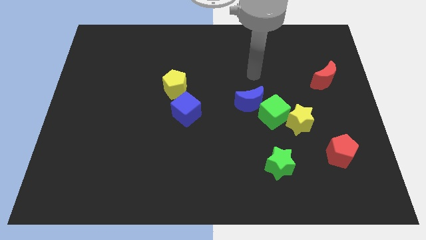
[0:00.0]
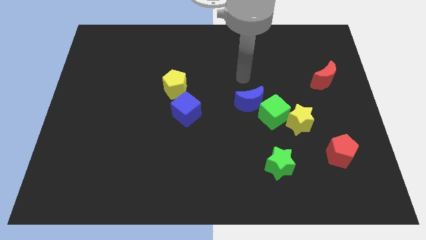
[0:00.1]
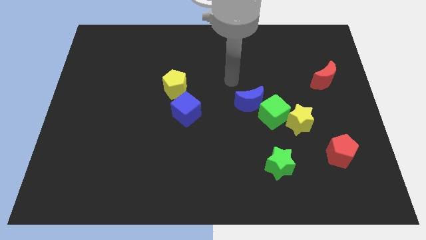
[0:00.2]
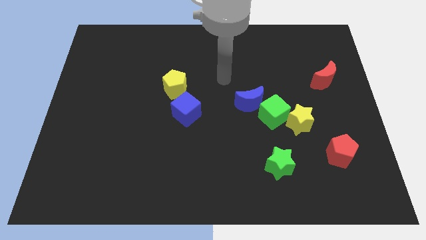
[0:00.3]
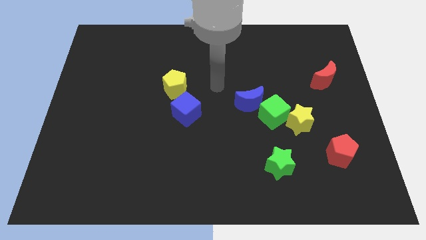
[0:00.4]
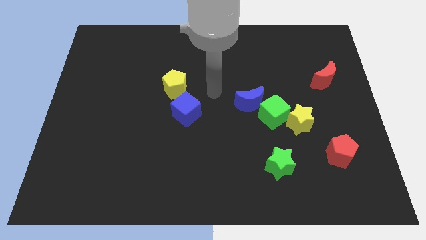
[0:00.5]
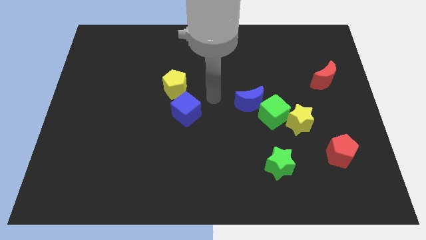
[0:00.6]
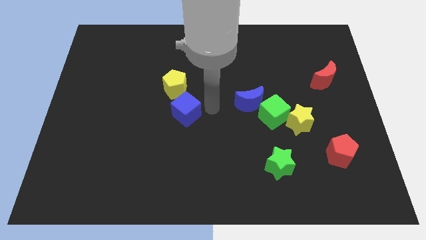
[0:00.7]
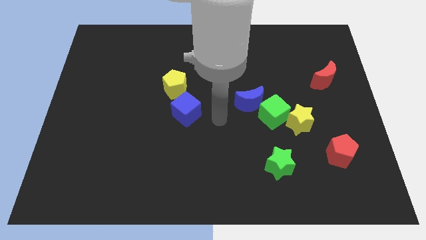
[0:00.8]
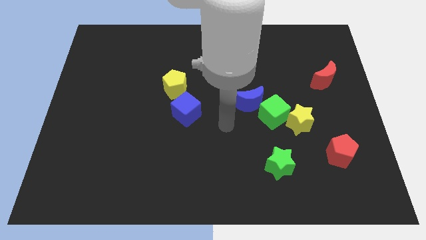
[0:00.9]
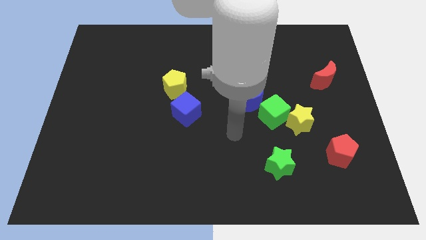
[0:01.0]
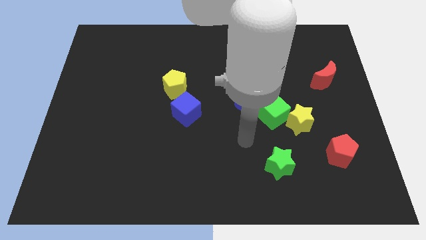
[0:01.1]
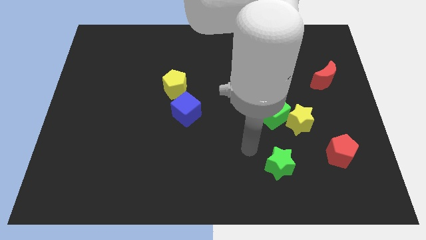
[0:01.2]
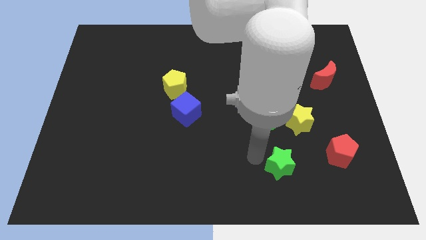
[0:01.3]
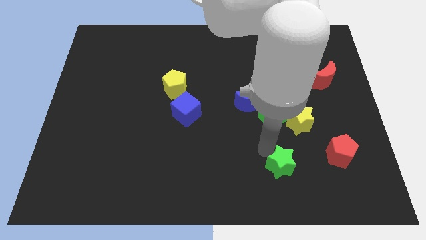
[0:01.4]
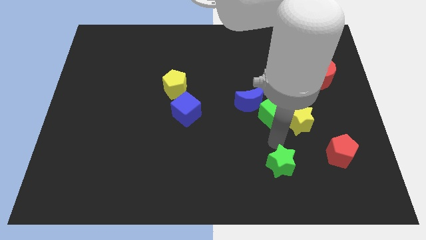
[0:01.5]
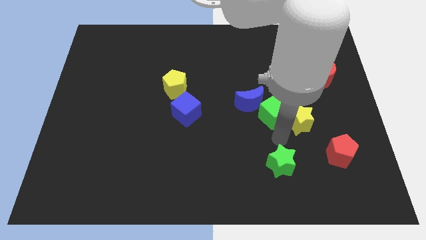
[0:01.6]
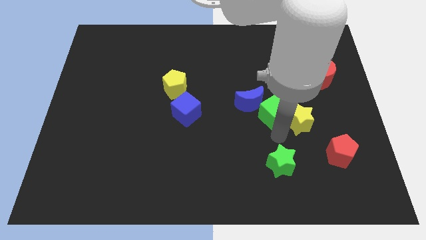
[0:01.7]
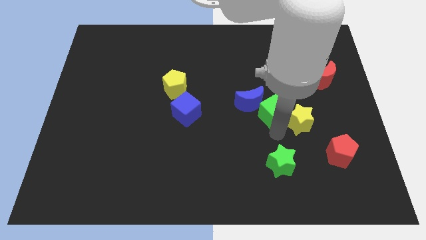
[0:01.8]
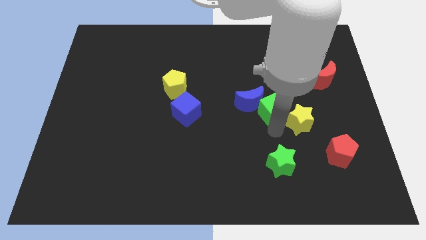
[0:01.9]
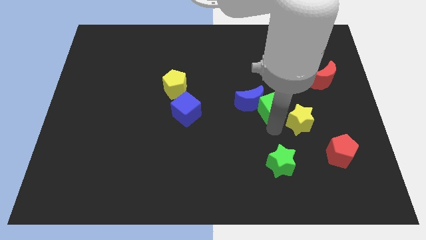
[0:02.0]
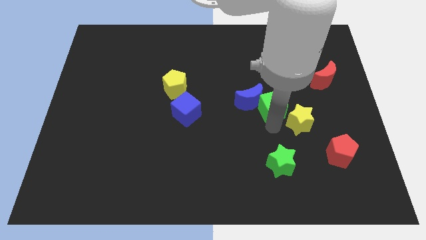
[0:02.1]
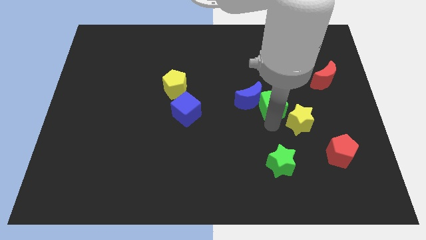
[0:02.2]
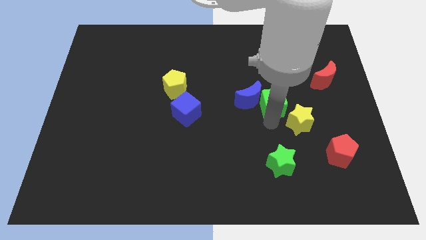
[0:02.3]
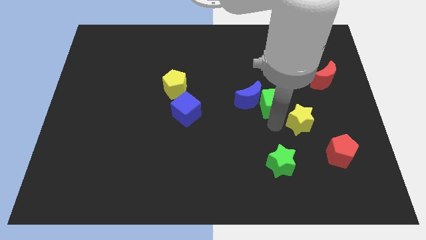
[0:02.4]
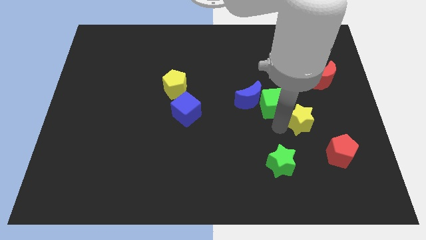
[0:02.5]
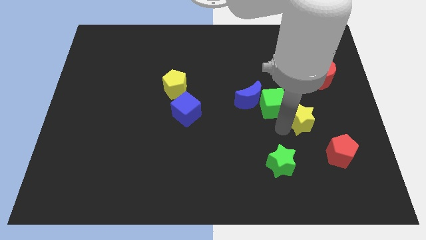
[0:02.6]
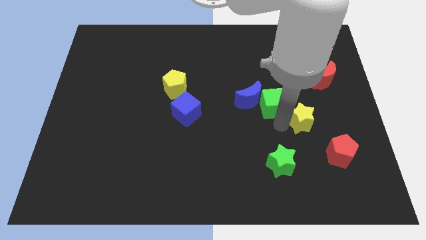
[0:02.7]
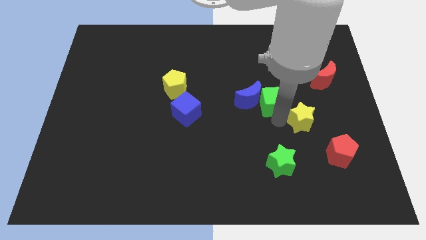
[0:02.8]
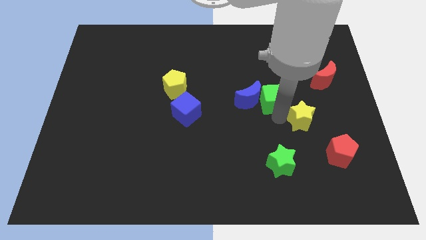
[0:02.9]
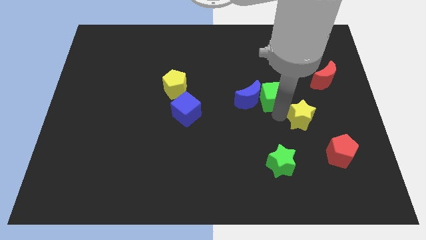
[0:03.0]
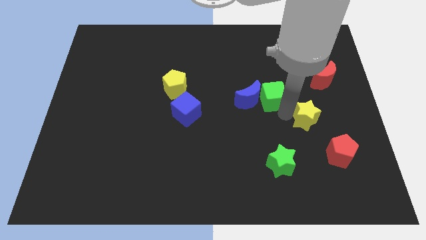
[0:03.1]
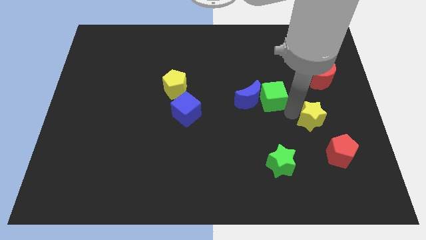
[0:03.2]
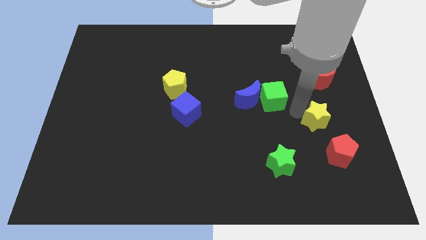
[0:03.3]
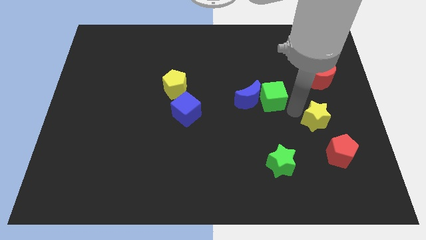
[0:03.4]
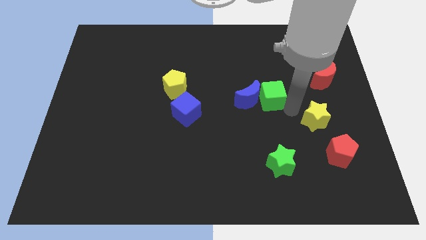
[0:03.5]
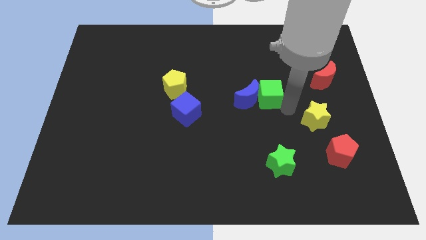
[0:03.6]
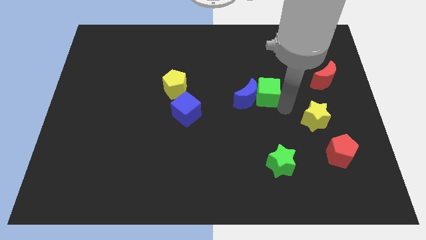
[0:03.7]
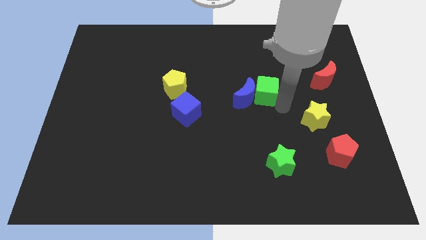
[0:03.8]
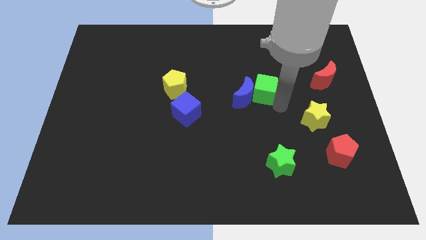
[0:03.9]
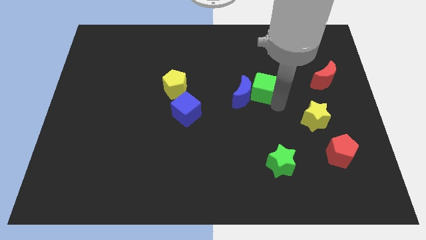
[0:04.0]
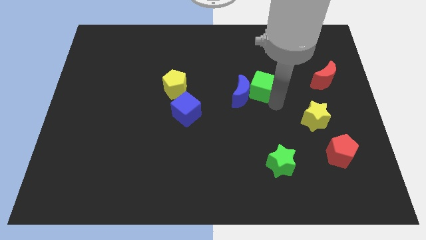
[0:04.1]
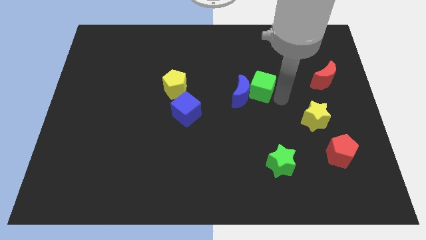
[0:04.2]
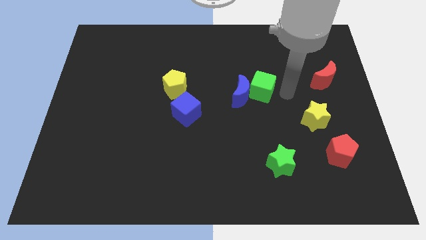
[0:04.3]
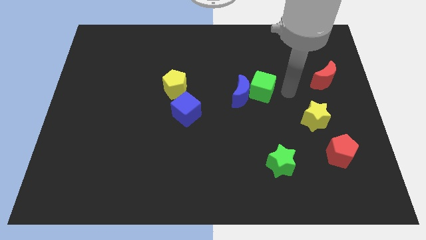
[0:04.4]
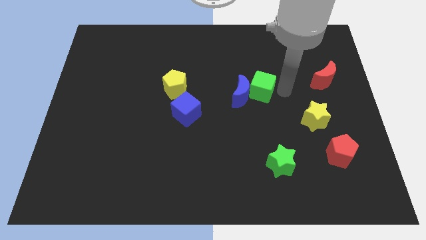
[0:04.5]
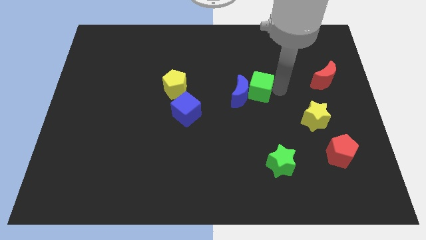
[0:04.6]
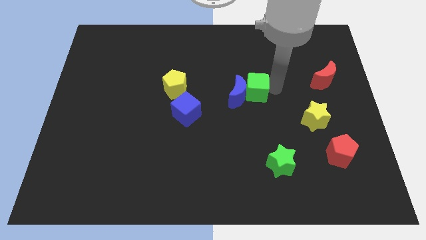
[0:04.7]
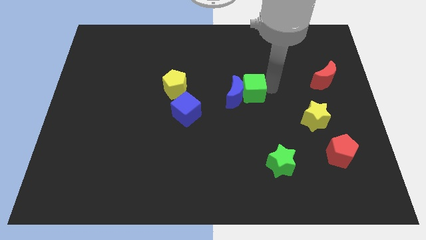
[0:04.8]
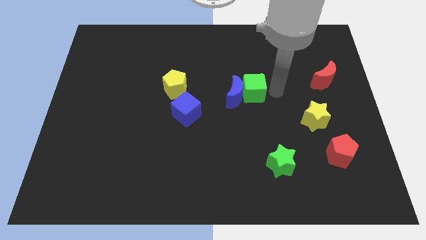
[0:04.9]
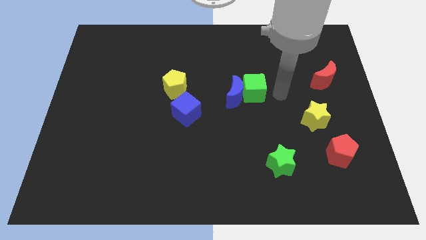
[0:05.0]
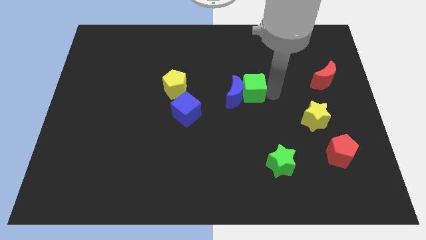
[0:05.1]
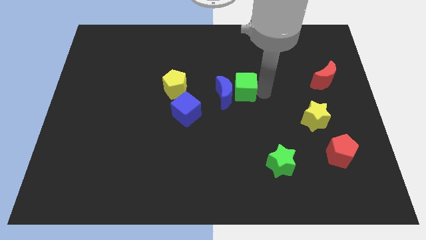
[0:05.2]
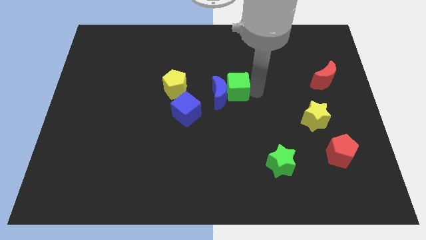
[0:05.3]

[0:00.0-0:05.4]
move the green cube right of the yellow pentagon

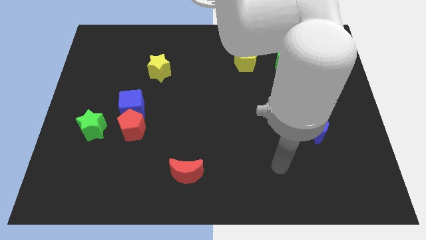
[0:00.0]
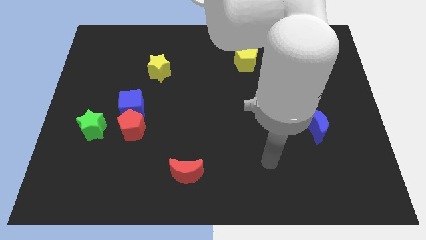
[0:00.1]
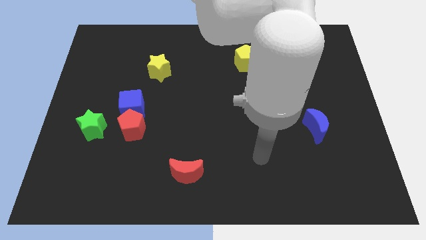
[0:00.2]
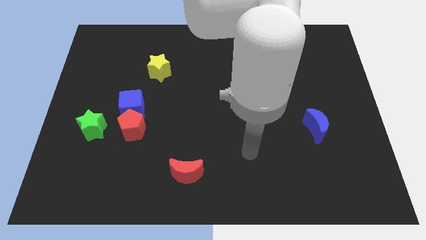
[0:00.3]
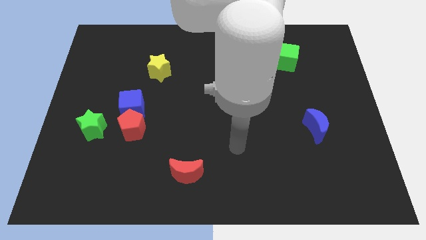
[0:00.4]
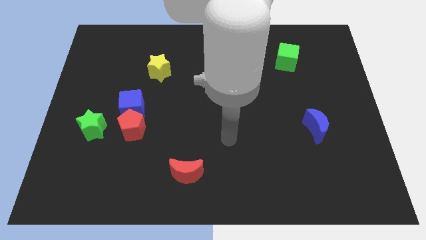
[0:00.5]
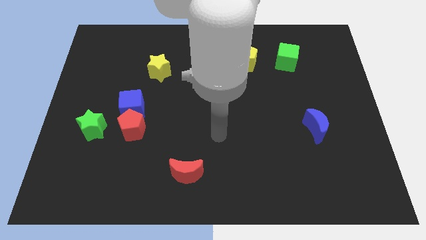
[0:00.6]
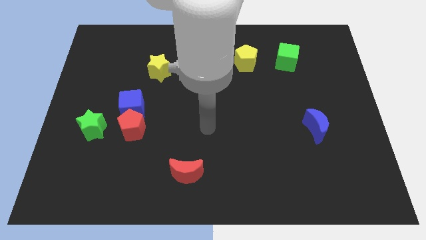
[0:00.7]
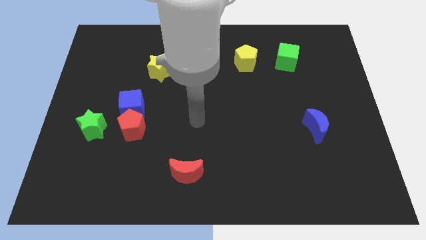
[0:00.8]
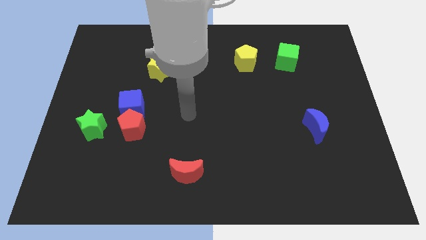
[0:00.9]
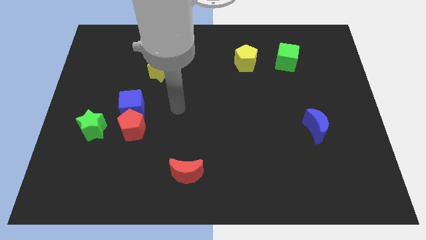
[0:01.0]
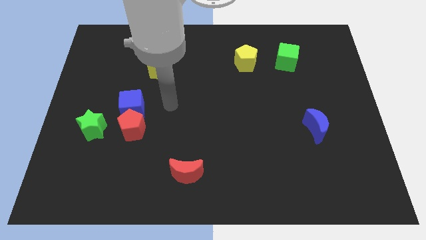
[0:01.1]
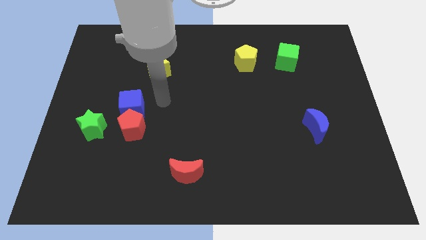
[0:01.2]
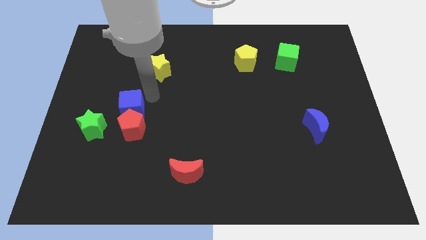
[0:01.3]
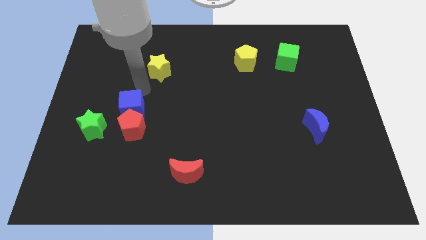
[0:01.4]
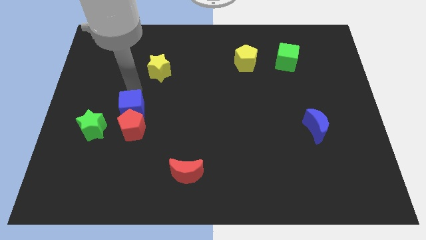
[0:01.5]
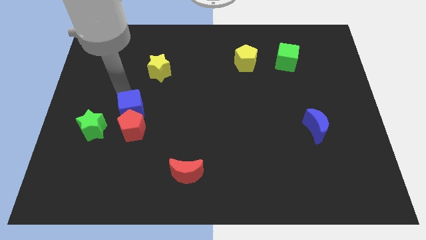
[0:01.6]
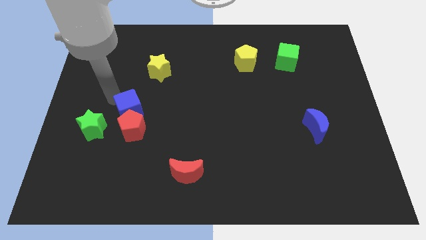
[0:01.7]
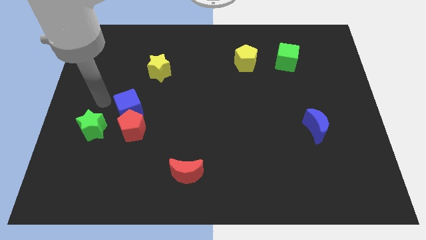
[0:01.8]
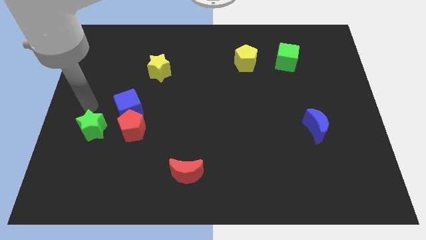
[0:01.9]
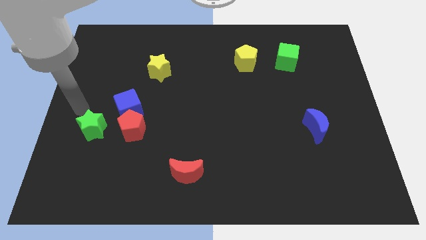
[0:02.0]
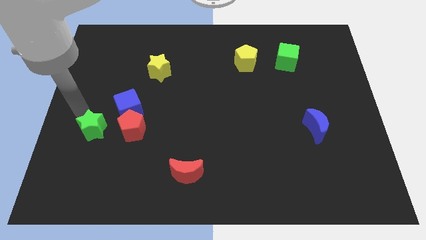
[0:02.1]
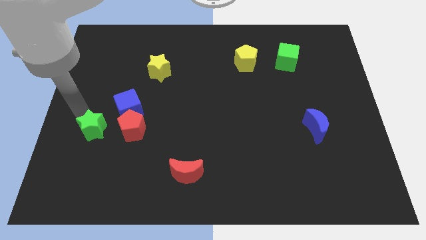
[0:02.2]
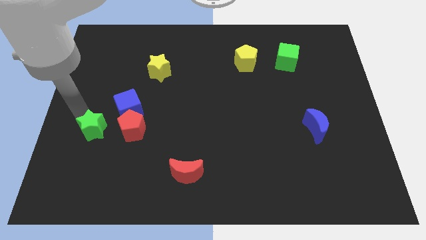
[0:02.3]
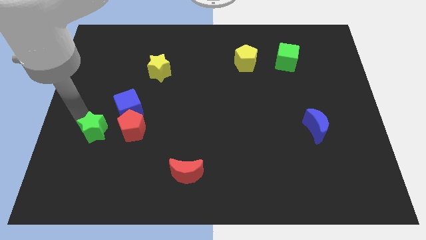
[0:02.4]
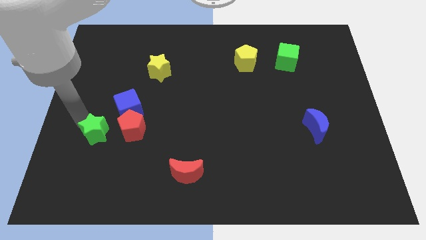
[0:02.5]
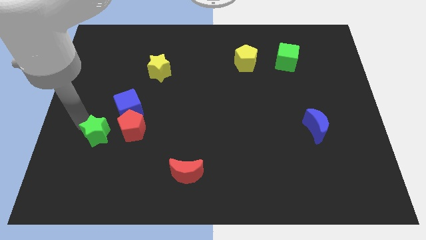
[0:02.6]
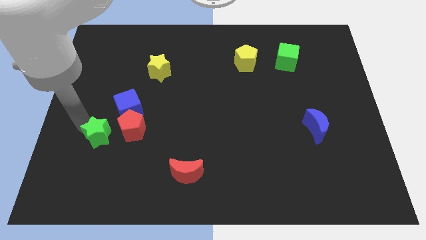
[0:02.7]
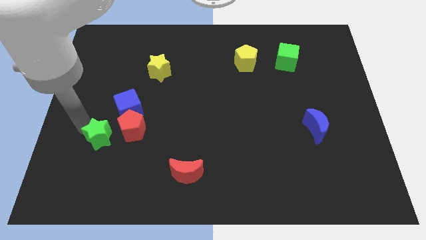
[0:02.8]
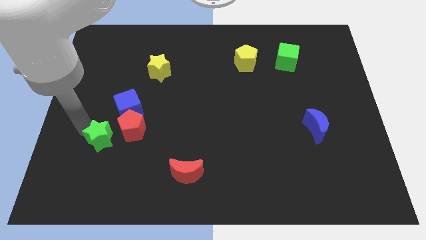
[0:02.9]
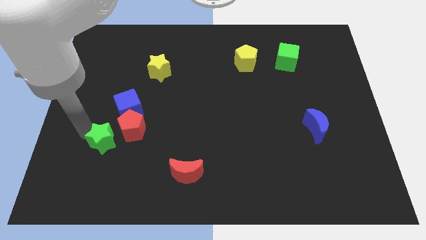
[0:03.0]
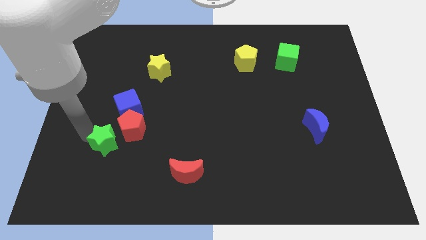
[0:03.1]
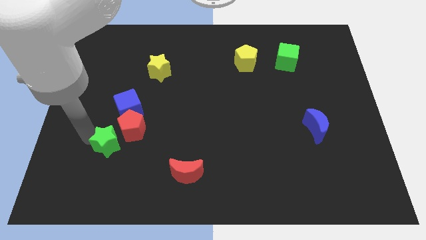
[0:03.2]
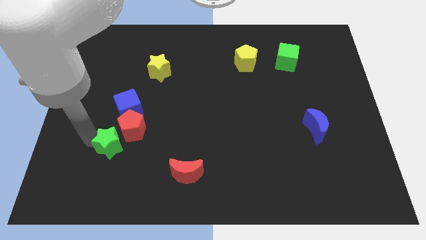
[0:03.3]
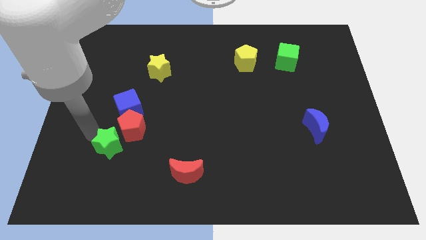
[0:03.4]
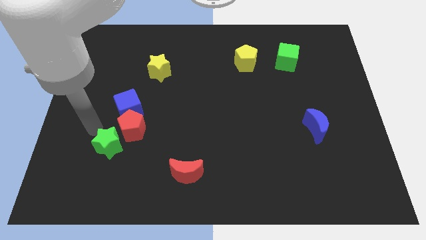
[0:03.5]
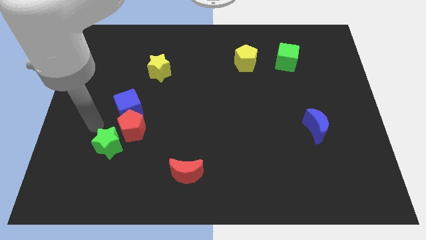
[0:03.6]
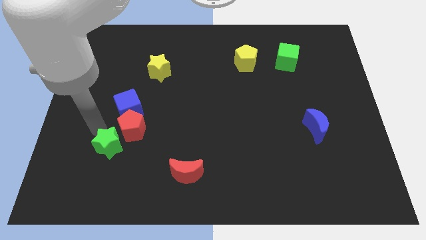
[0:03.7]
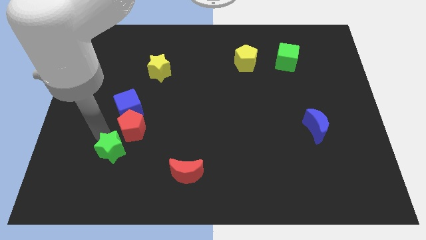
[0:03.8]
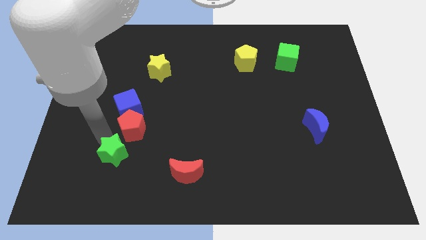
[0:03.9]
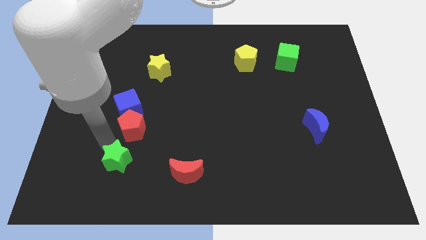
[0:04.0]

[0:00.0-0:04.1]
slide the green star to the left side of the red moon
